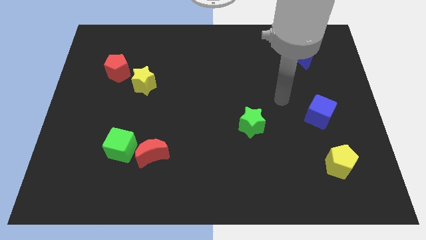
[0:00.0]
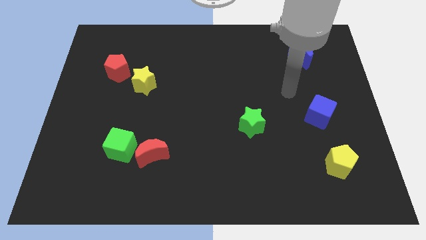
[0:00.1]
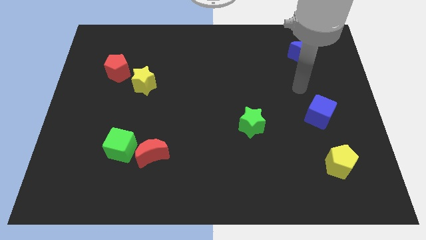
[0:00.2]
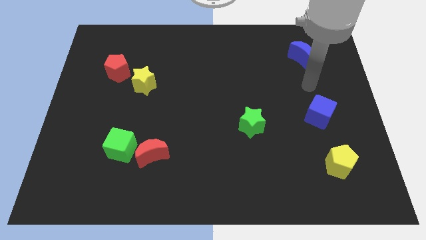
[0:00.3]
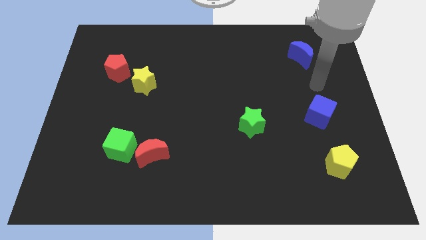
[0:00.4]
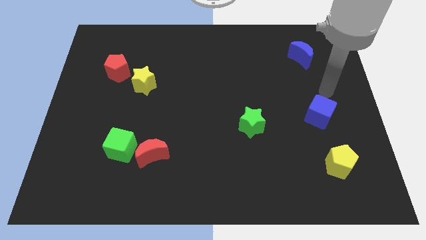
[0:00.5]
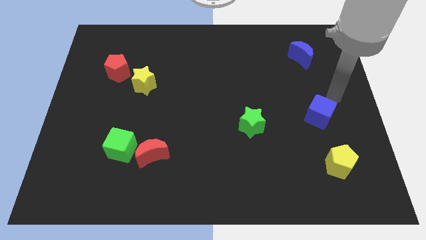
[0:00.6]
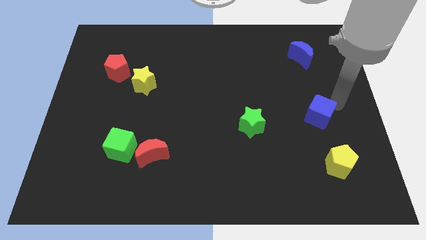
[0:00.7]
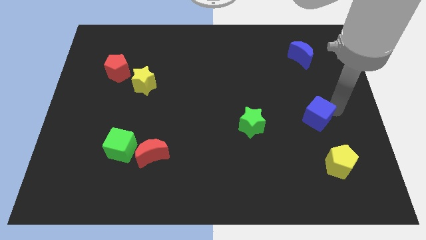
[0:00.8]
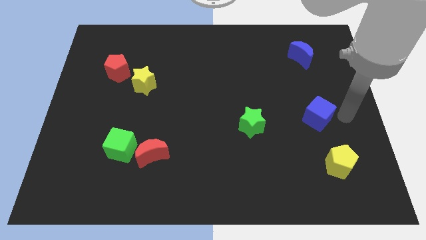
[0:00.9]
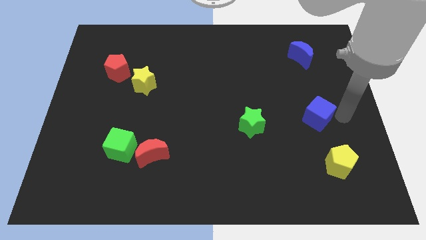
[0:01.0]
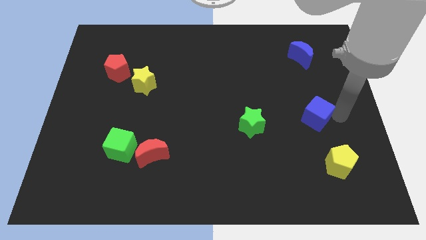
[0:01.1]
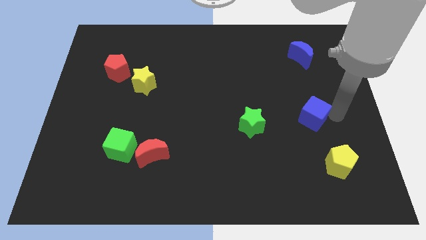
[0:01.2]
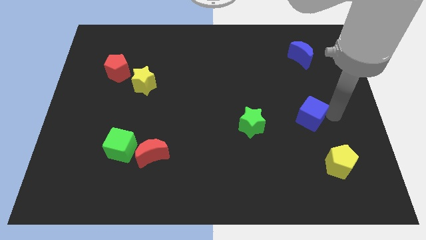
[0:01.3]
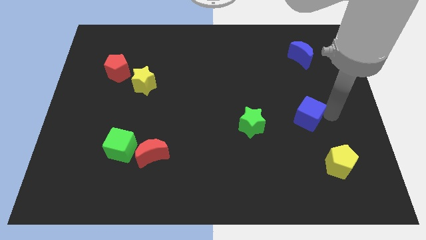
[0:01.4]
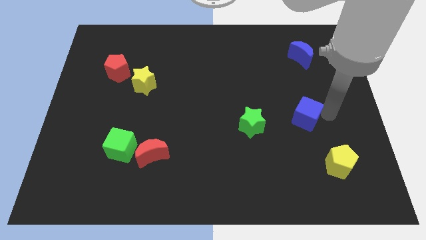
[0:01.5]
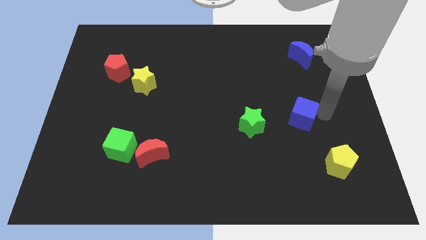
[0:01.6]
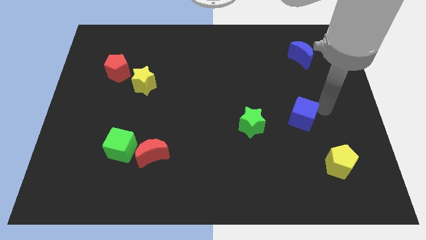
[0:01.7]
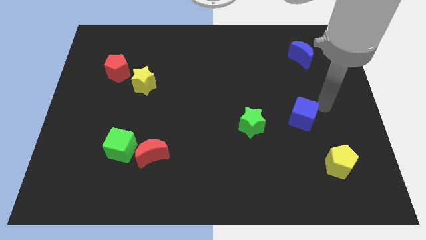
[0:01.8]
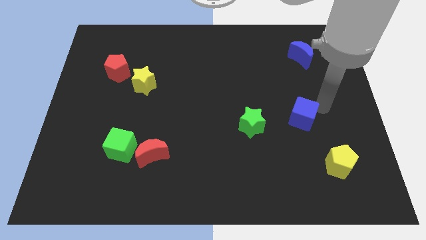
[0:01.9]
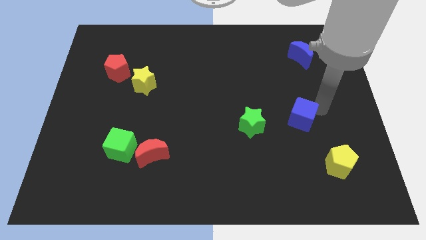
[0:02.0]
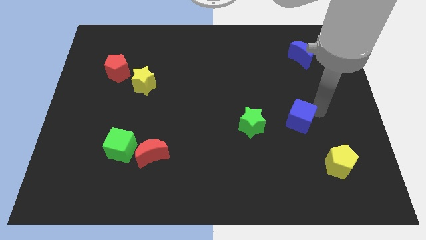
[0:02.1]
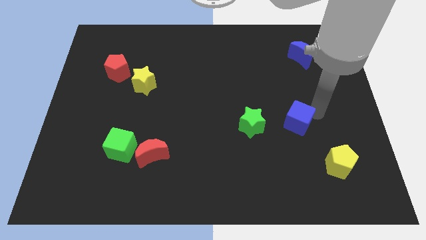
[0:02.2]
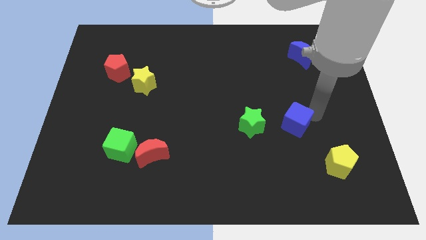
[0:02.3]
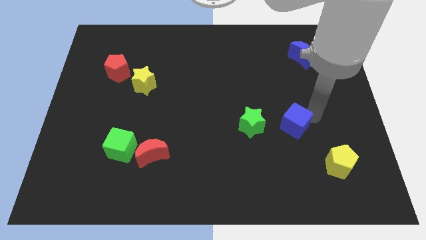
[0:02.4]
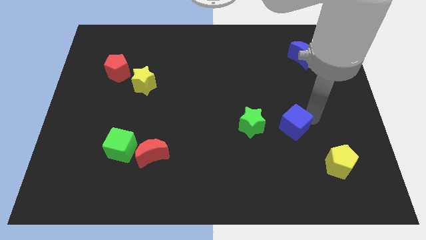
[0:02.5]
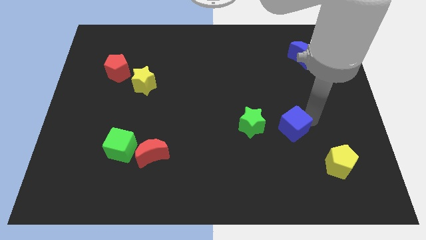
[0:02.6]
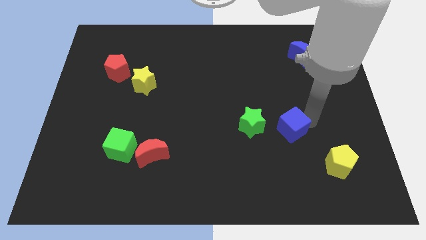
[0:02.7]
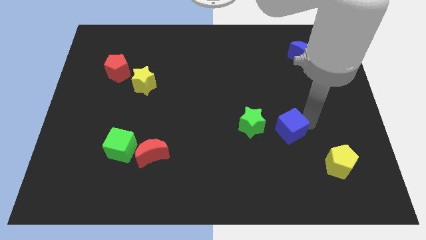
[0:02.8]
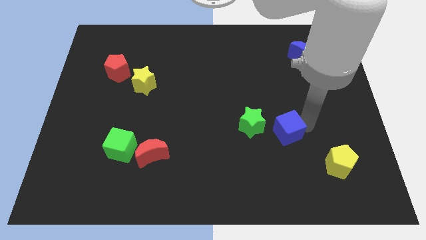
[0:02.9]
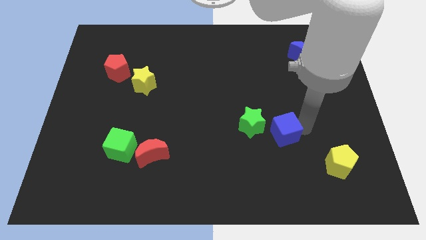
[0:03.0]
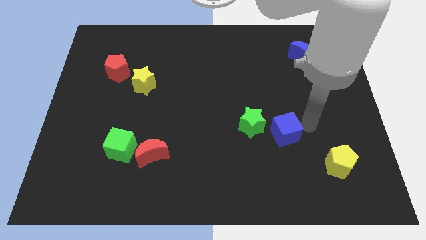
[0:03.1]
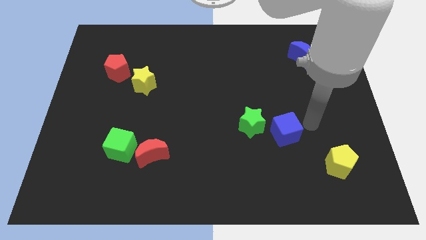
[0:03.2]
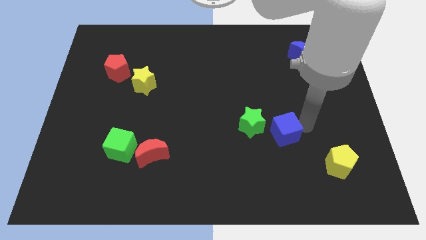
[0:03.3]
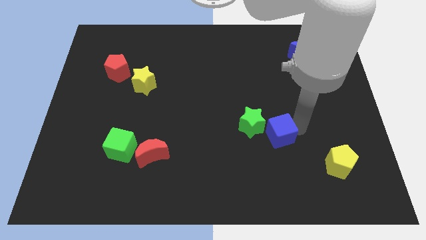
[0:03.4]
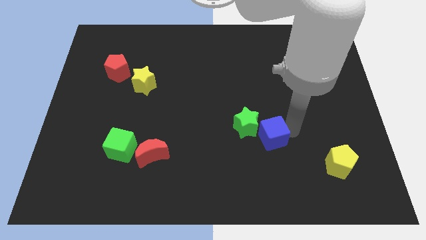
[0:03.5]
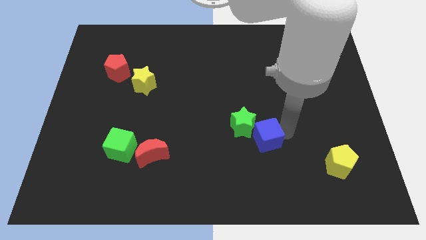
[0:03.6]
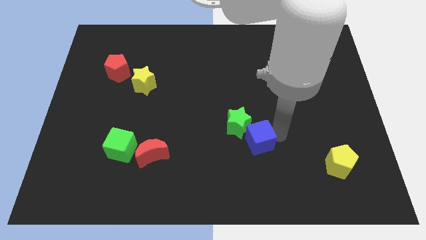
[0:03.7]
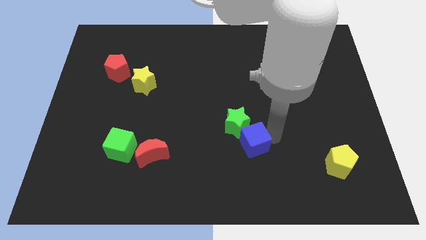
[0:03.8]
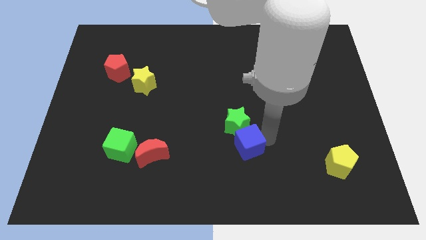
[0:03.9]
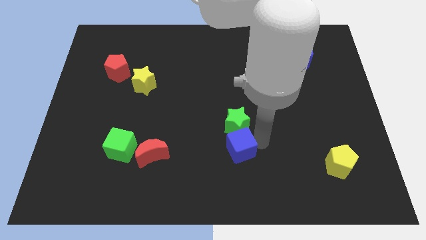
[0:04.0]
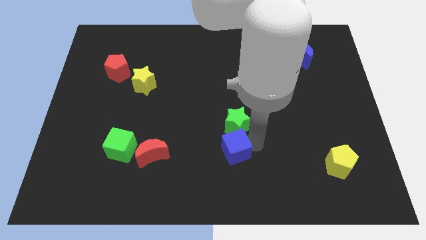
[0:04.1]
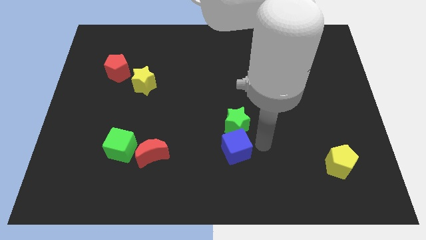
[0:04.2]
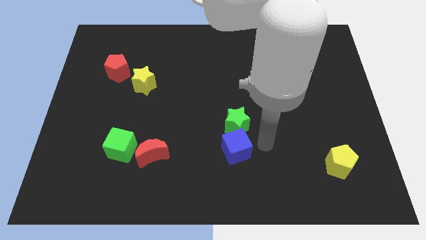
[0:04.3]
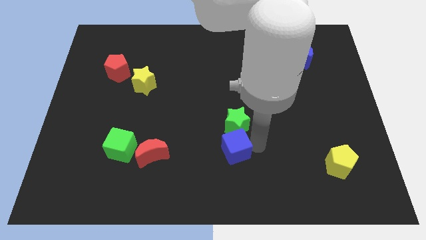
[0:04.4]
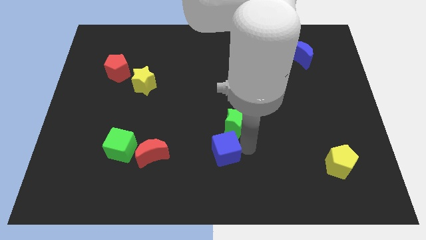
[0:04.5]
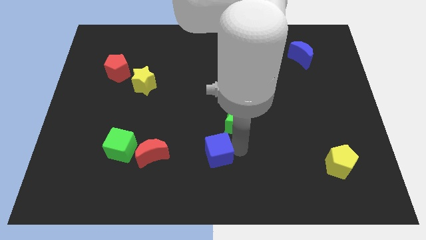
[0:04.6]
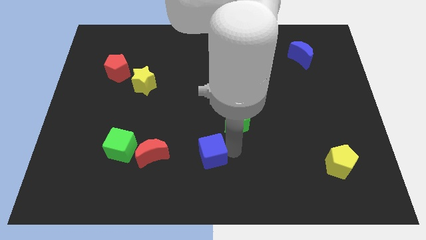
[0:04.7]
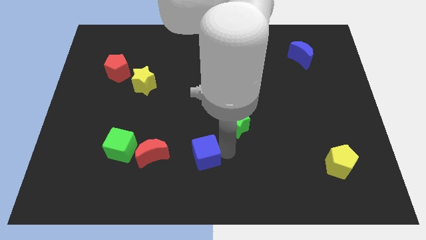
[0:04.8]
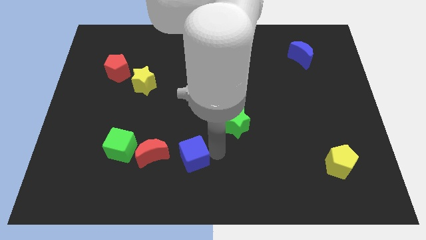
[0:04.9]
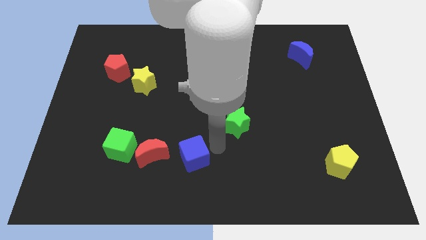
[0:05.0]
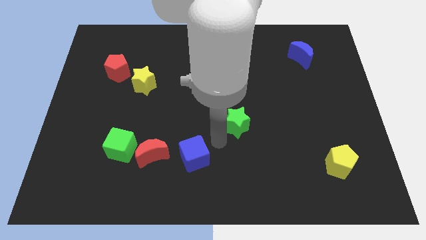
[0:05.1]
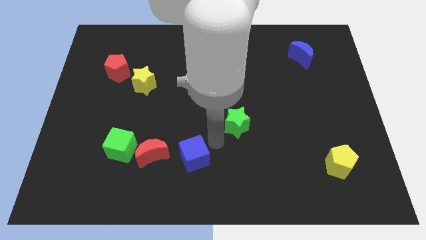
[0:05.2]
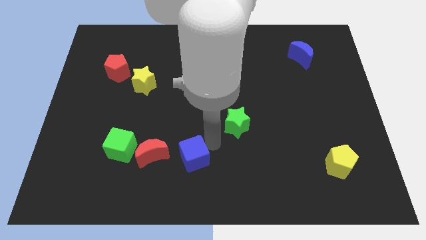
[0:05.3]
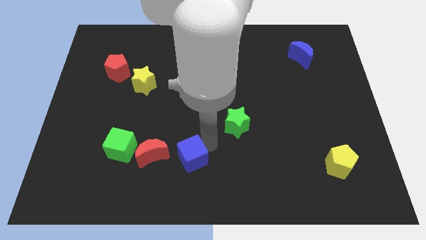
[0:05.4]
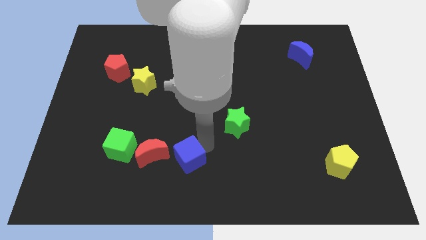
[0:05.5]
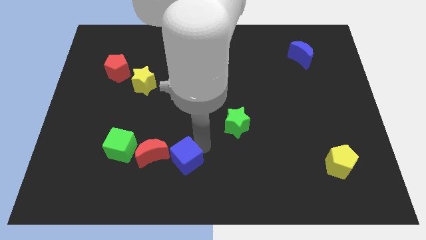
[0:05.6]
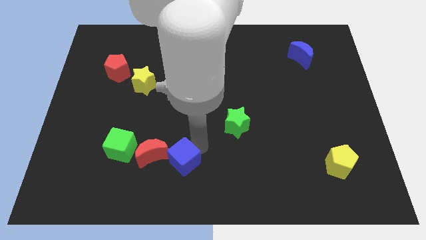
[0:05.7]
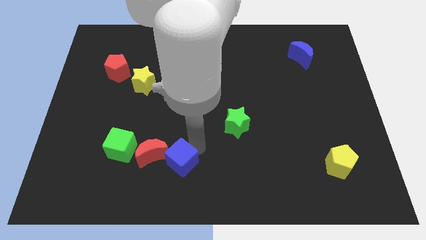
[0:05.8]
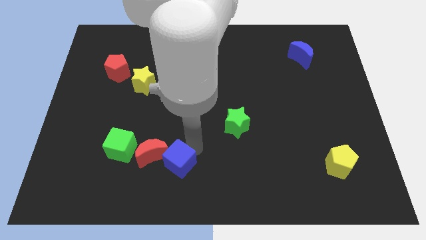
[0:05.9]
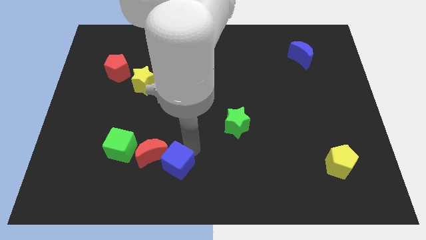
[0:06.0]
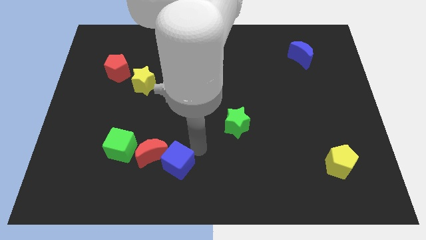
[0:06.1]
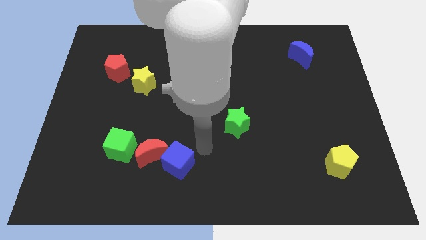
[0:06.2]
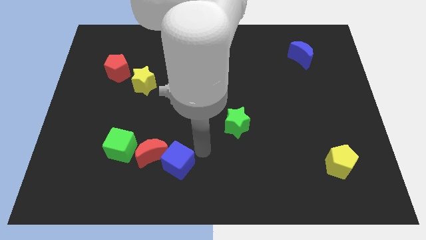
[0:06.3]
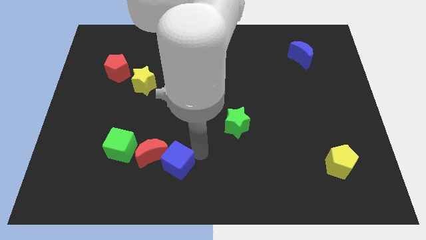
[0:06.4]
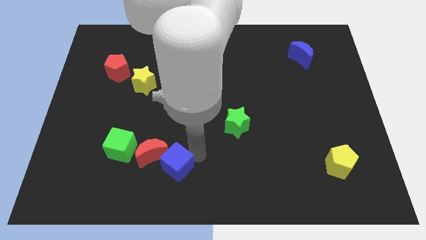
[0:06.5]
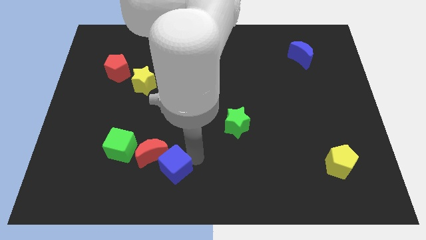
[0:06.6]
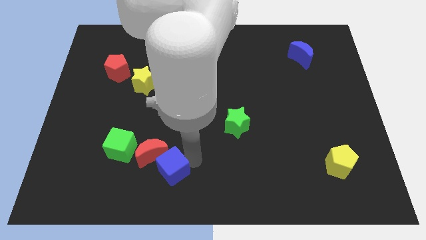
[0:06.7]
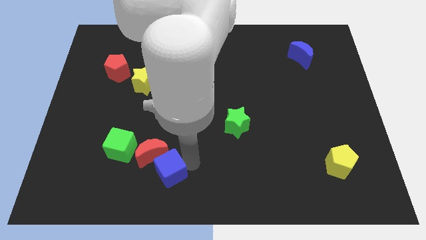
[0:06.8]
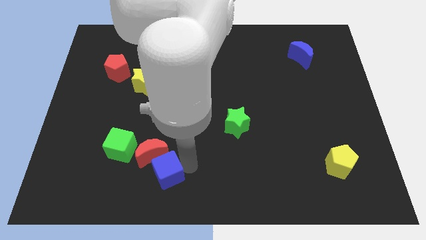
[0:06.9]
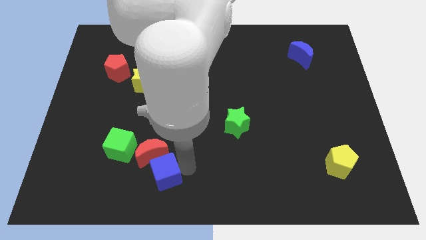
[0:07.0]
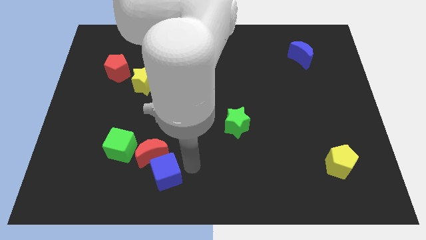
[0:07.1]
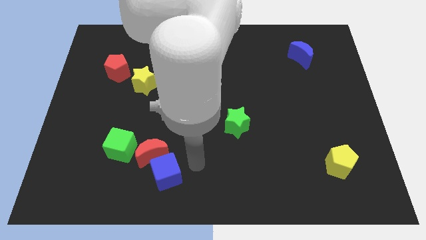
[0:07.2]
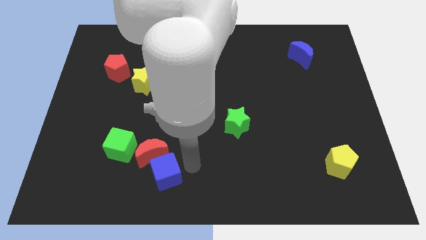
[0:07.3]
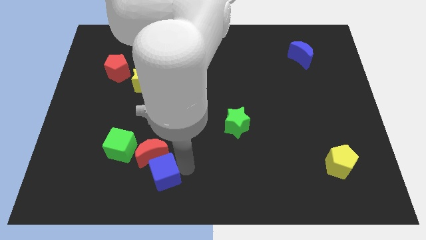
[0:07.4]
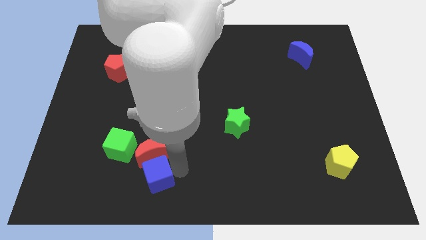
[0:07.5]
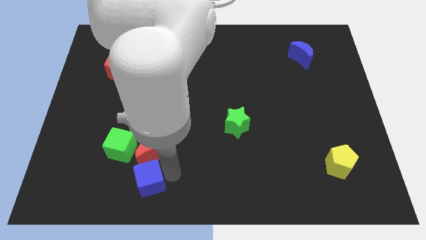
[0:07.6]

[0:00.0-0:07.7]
put the blue cube to the bottom left of the red moon
